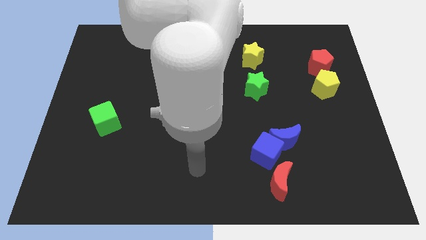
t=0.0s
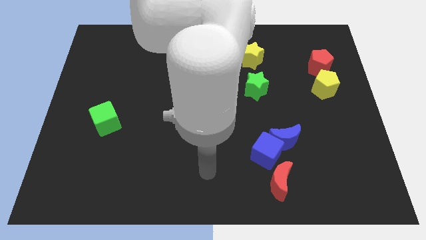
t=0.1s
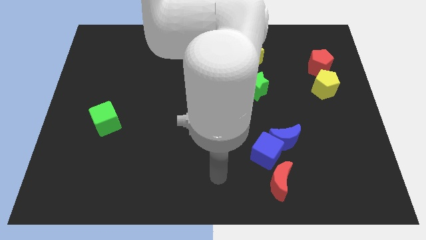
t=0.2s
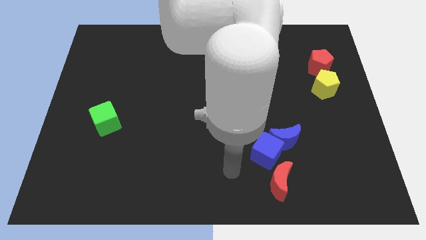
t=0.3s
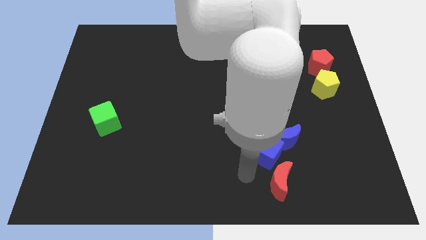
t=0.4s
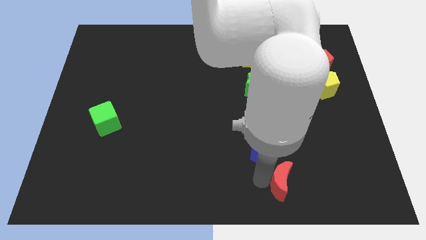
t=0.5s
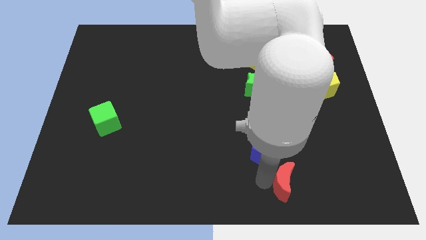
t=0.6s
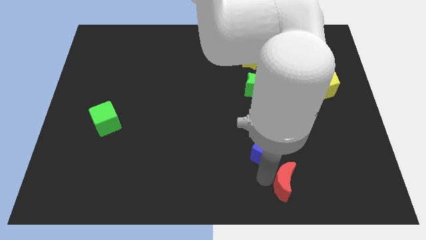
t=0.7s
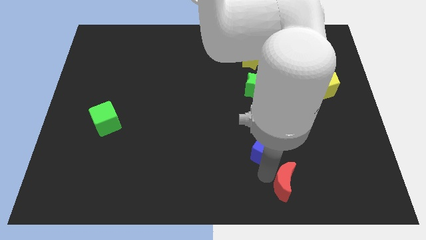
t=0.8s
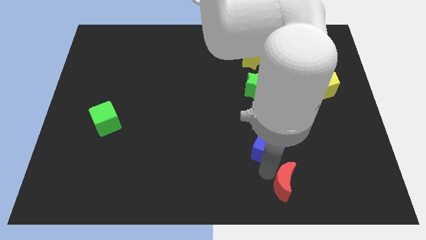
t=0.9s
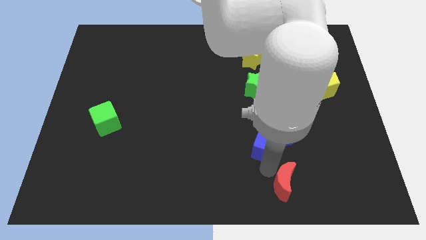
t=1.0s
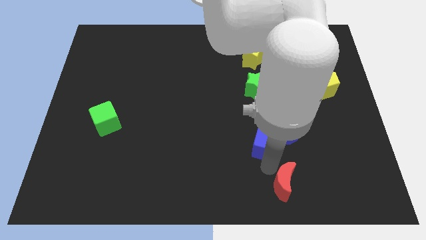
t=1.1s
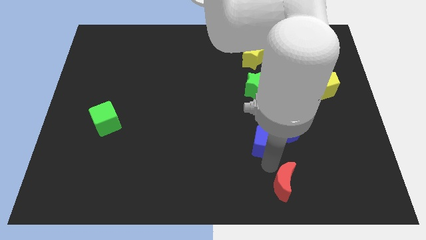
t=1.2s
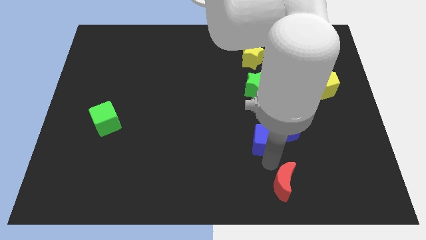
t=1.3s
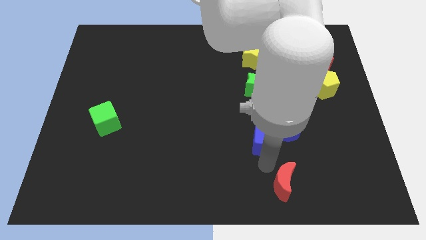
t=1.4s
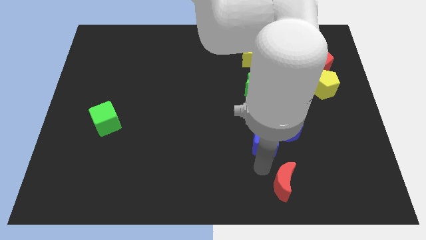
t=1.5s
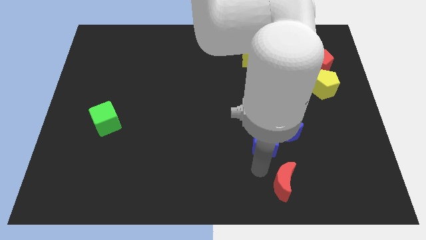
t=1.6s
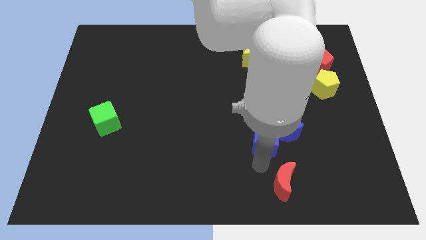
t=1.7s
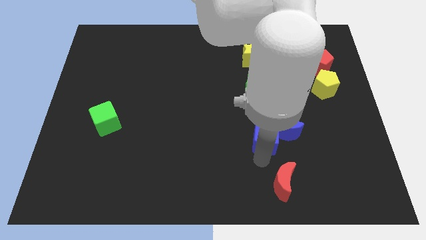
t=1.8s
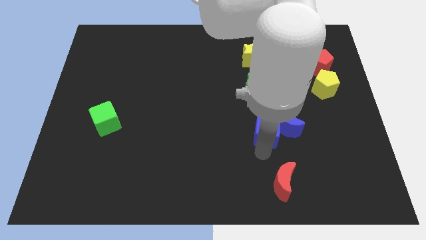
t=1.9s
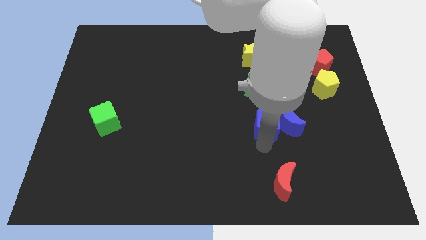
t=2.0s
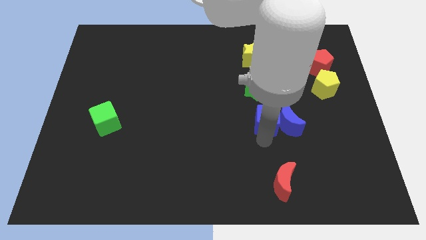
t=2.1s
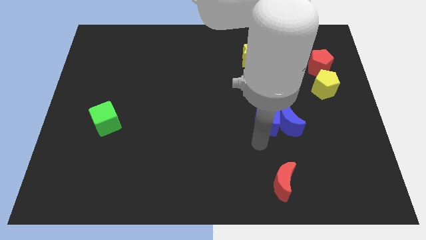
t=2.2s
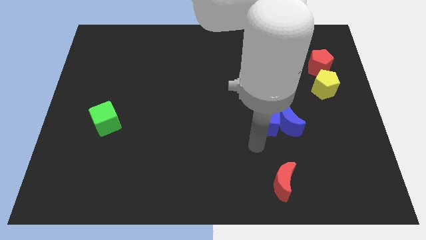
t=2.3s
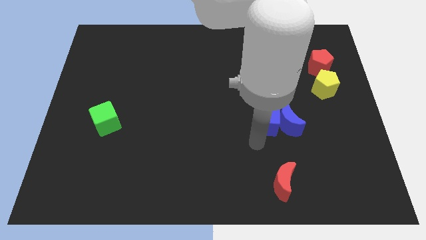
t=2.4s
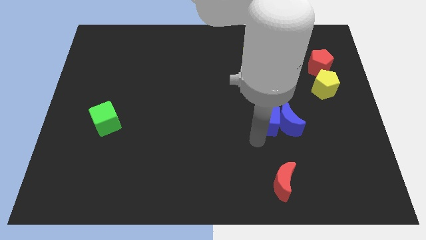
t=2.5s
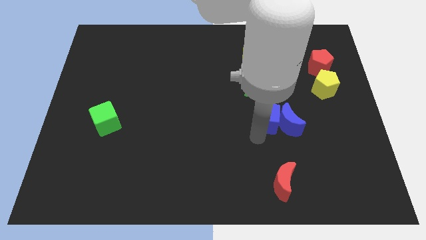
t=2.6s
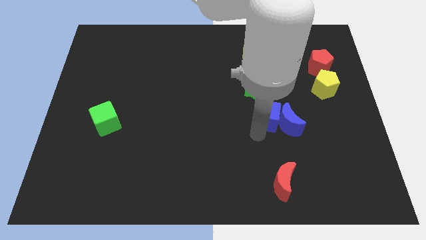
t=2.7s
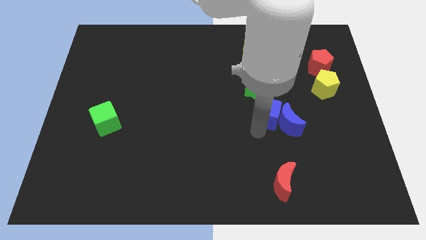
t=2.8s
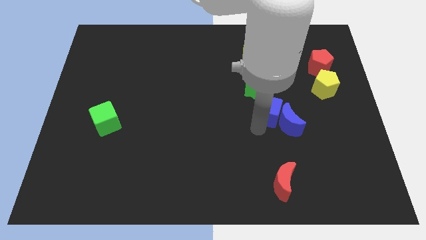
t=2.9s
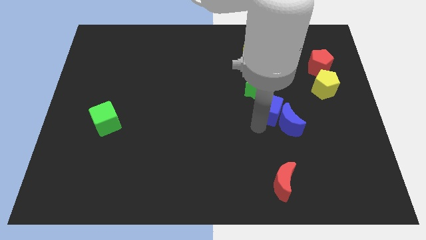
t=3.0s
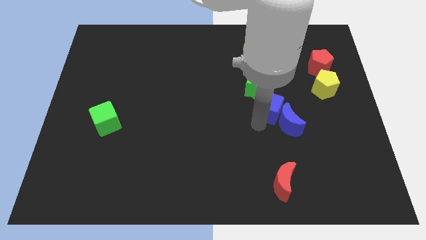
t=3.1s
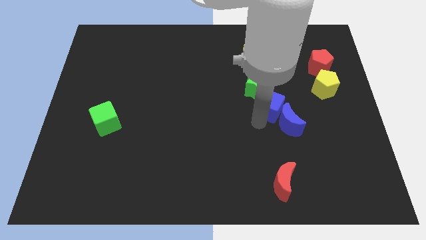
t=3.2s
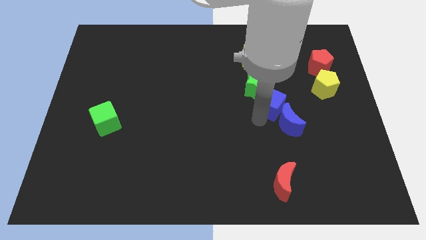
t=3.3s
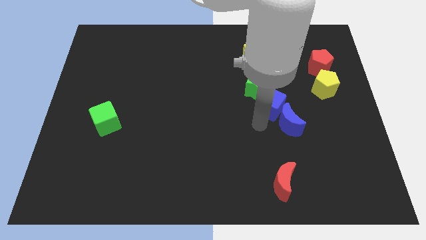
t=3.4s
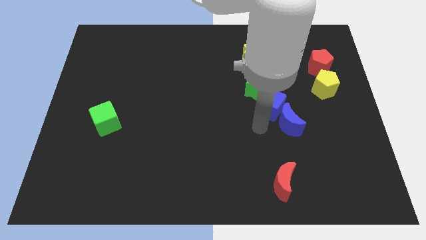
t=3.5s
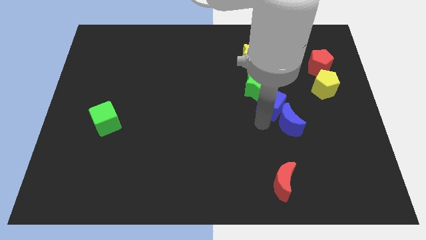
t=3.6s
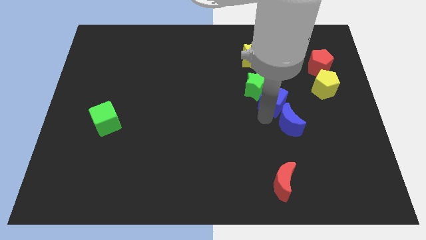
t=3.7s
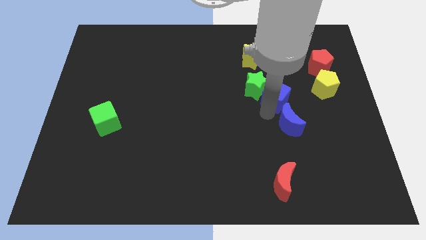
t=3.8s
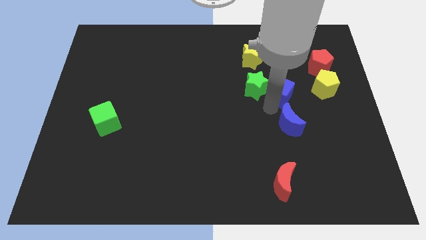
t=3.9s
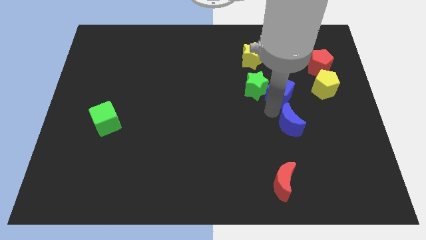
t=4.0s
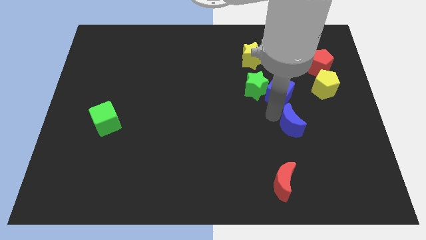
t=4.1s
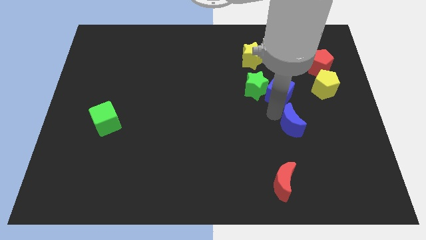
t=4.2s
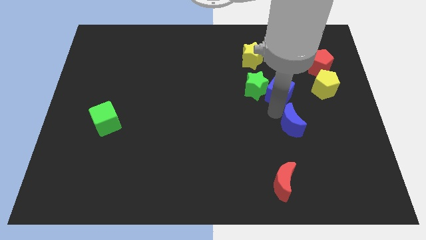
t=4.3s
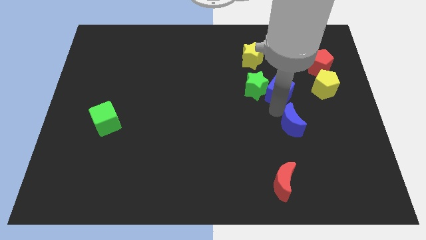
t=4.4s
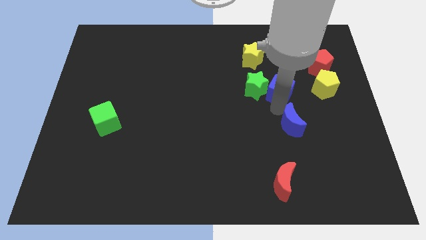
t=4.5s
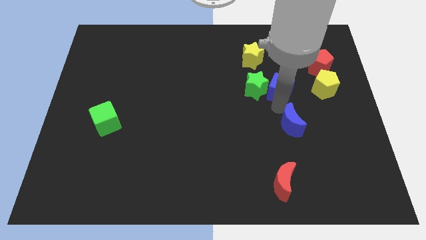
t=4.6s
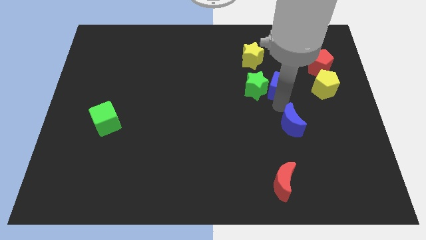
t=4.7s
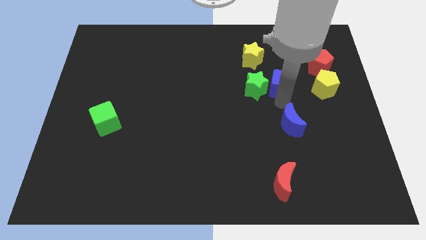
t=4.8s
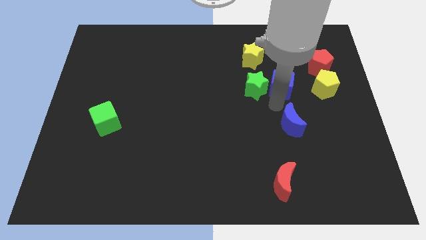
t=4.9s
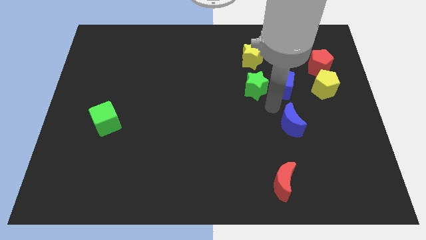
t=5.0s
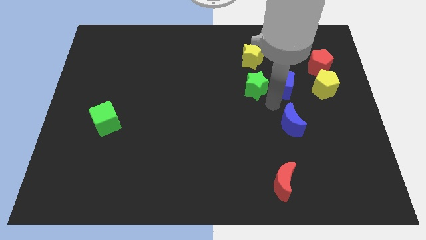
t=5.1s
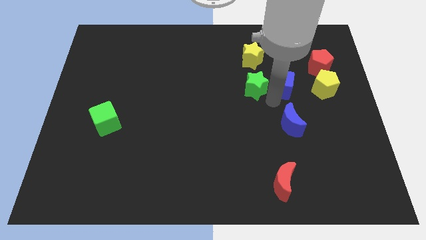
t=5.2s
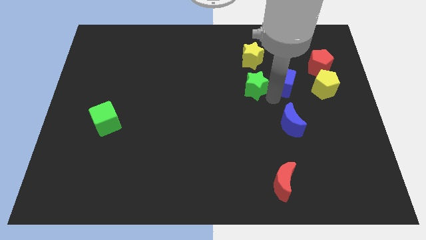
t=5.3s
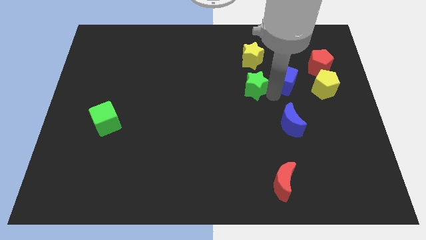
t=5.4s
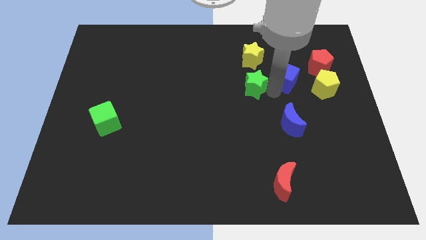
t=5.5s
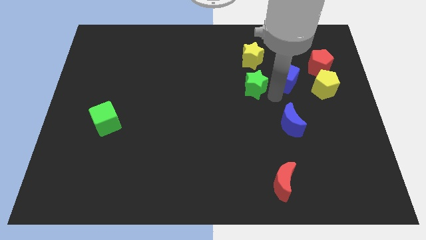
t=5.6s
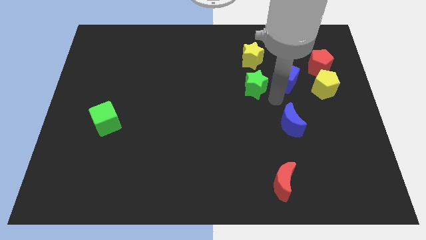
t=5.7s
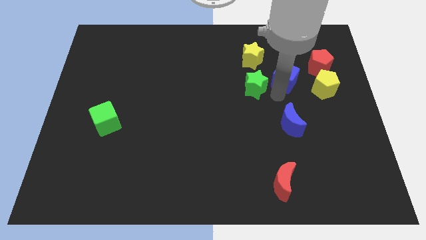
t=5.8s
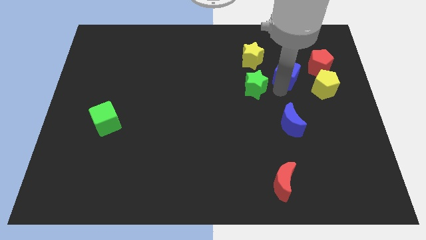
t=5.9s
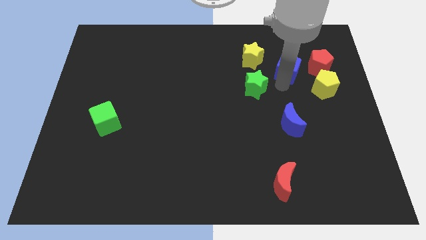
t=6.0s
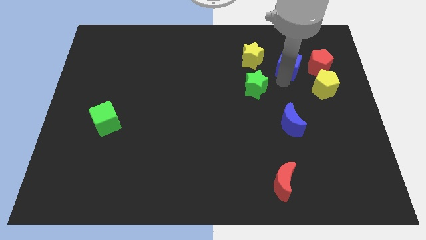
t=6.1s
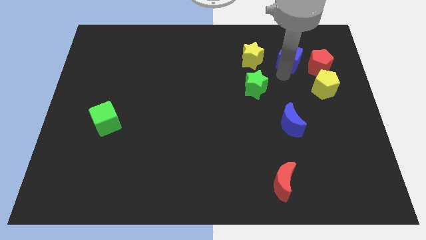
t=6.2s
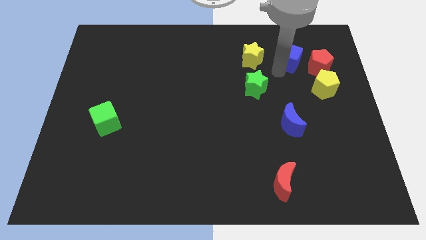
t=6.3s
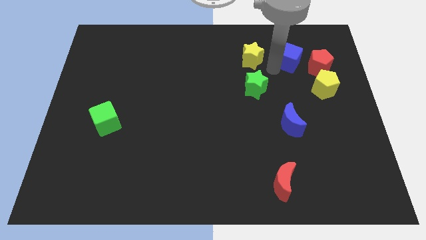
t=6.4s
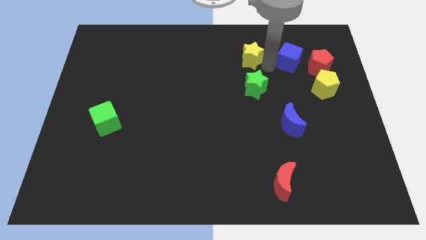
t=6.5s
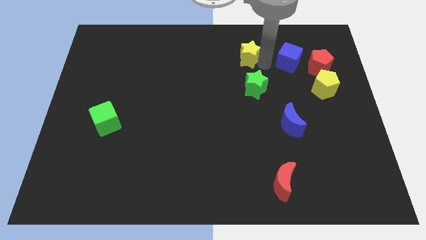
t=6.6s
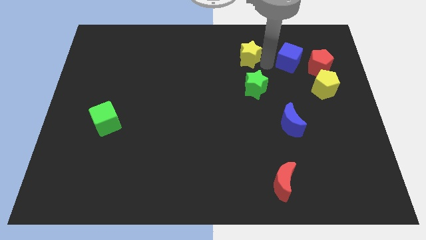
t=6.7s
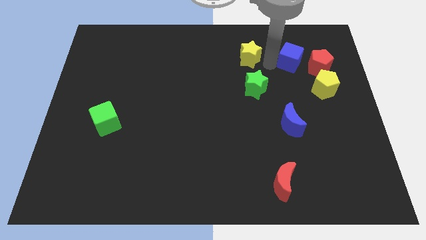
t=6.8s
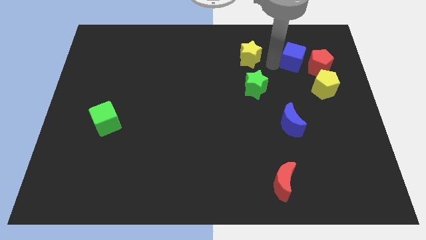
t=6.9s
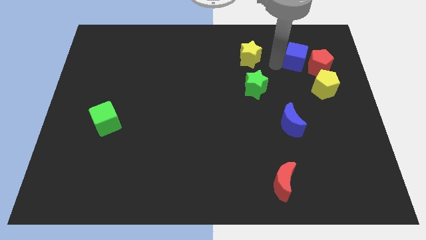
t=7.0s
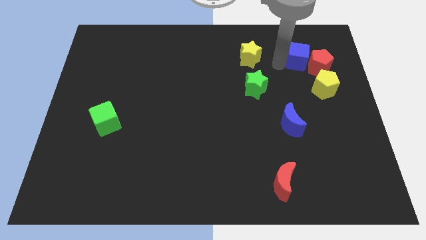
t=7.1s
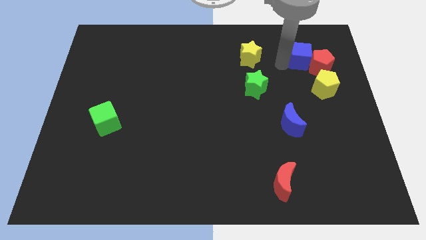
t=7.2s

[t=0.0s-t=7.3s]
push the blue cube above the yellow pentagon

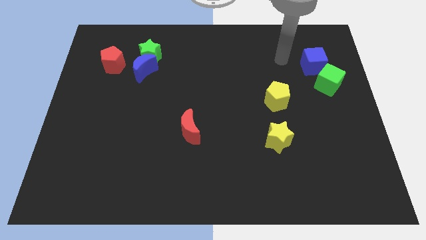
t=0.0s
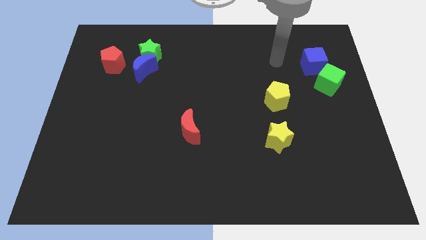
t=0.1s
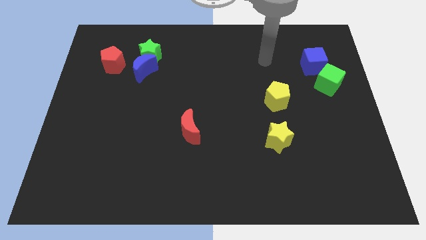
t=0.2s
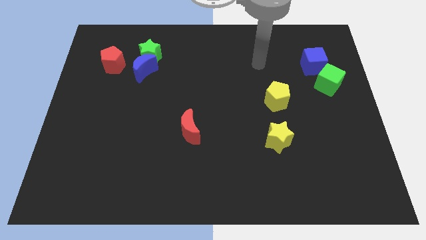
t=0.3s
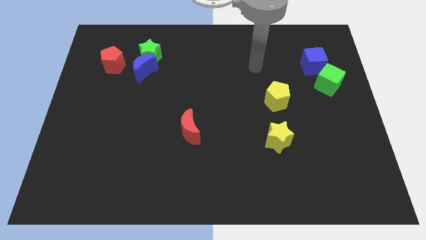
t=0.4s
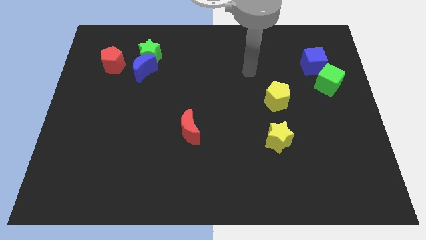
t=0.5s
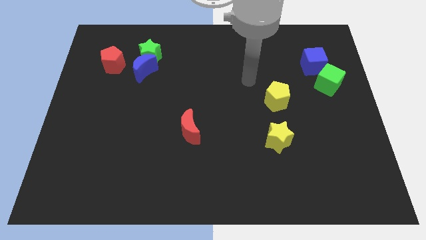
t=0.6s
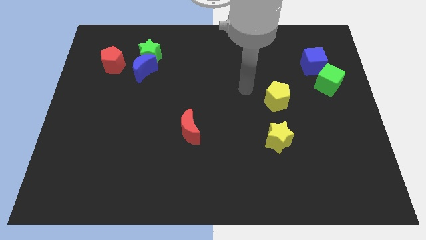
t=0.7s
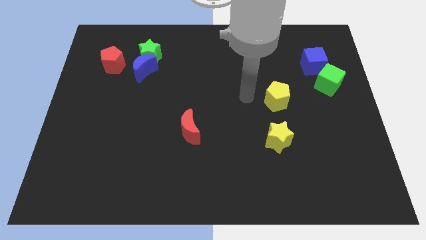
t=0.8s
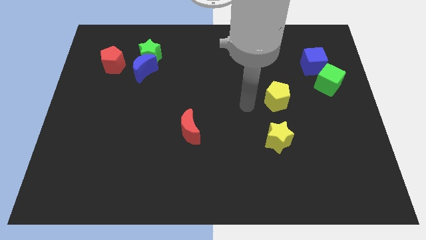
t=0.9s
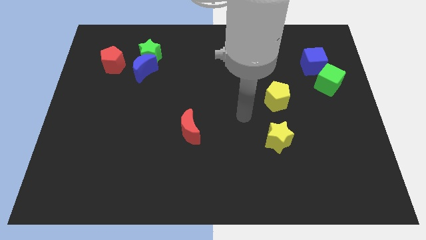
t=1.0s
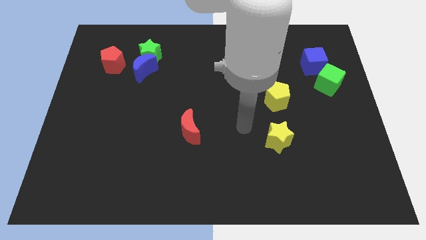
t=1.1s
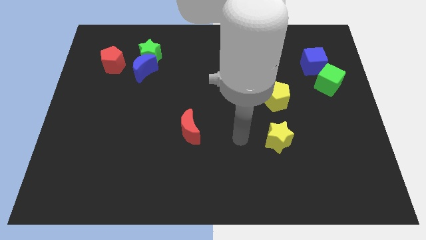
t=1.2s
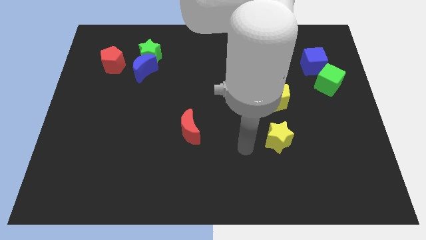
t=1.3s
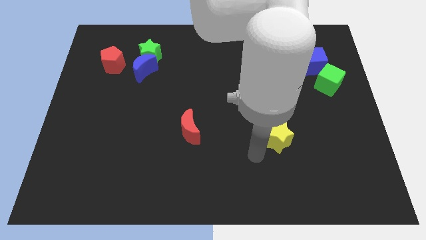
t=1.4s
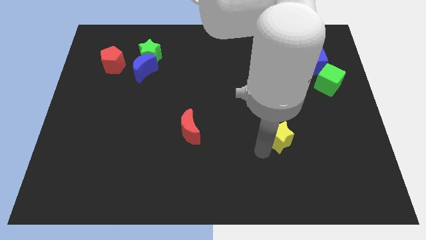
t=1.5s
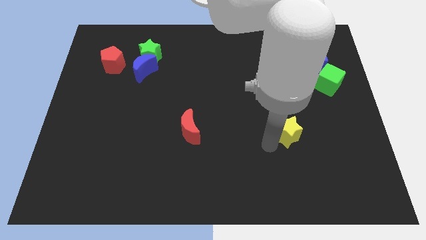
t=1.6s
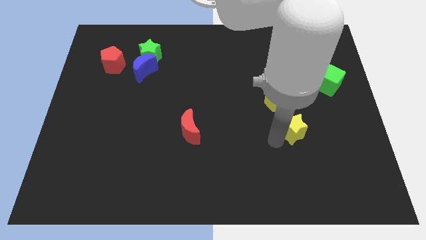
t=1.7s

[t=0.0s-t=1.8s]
move the yellow star to the bottom right side of the yellow pentagon
